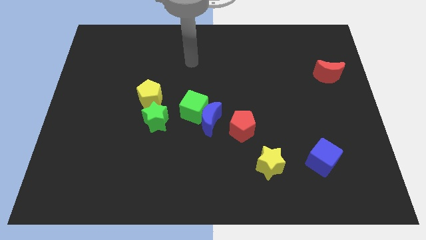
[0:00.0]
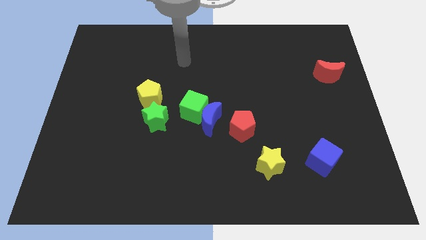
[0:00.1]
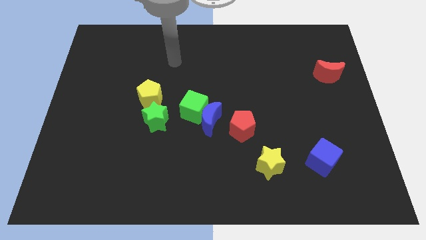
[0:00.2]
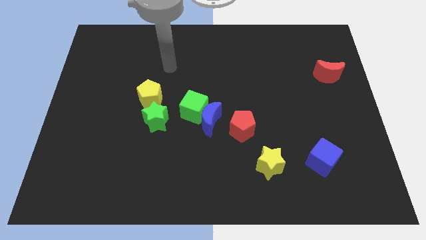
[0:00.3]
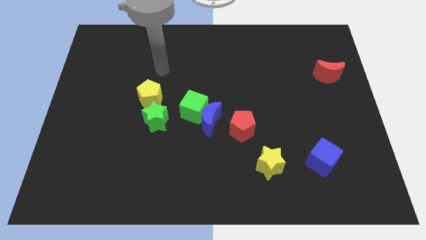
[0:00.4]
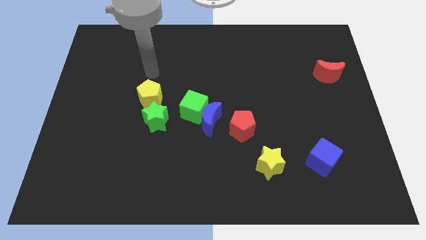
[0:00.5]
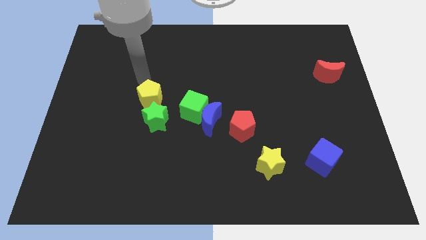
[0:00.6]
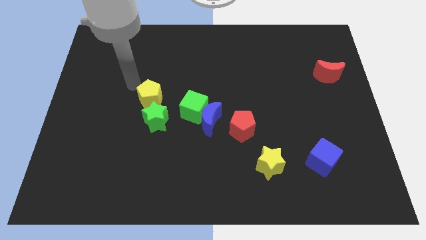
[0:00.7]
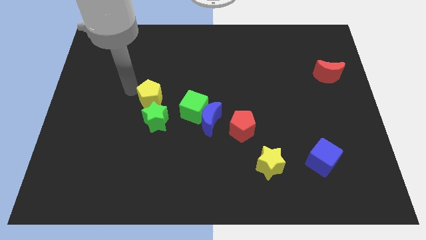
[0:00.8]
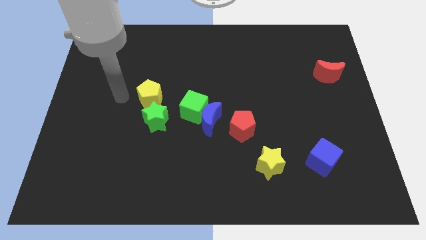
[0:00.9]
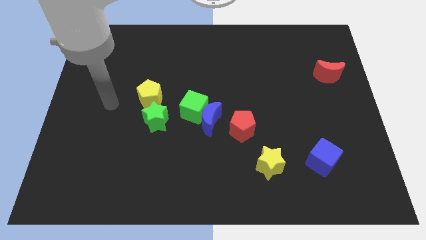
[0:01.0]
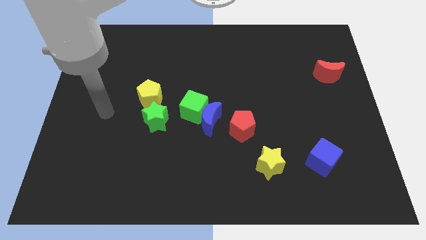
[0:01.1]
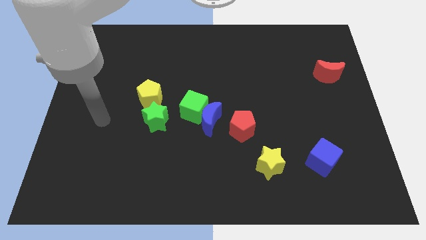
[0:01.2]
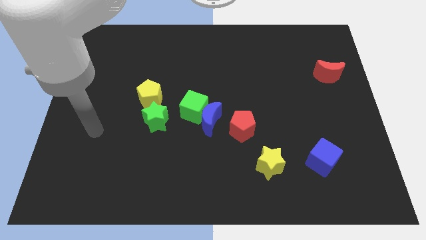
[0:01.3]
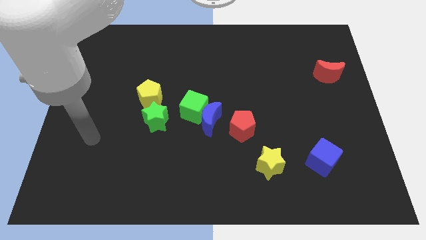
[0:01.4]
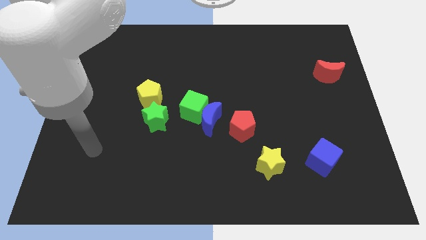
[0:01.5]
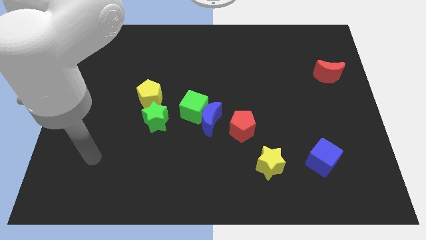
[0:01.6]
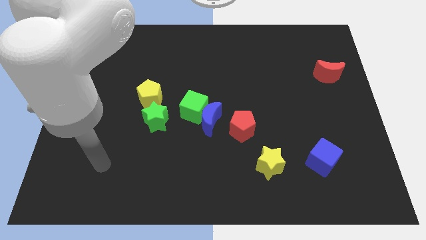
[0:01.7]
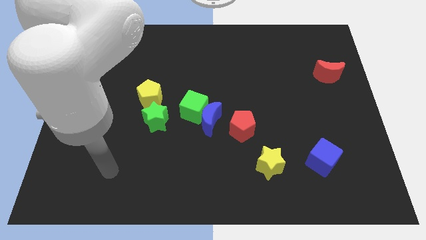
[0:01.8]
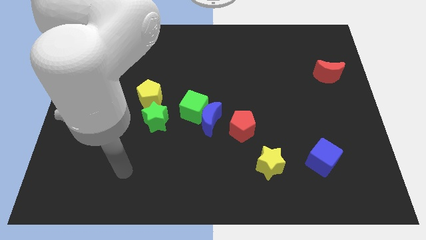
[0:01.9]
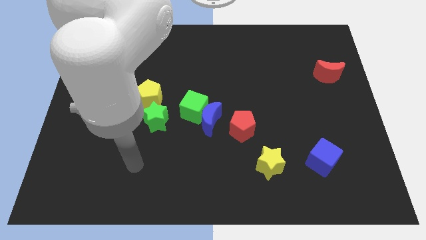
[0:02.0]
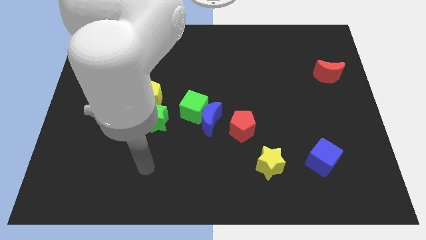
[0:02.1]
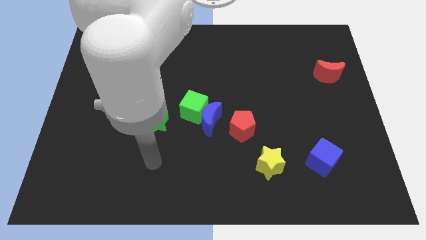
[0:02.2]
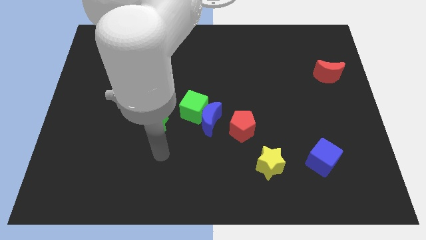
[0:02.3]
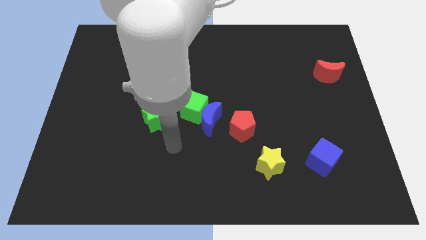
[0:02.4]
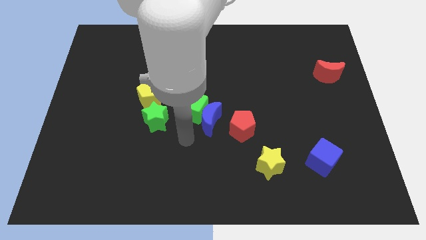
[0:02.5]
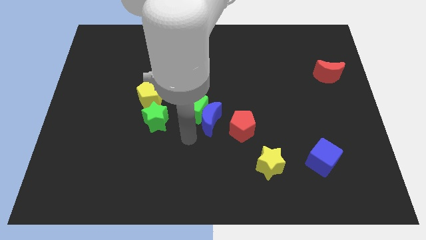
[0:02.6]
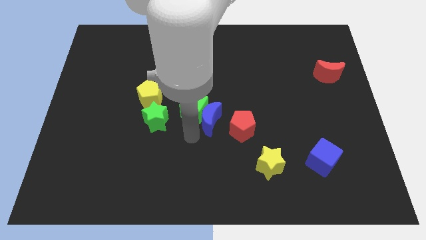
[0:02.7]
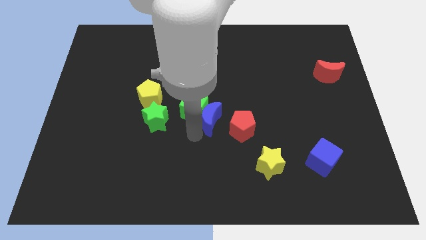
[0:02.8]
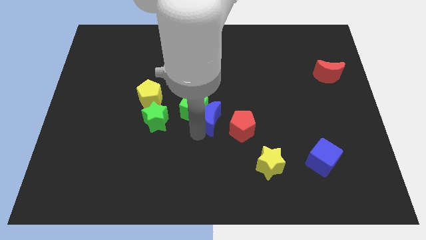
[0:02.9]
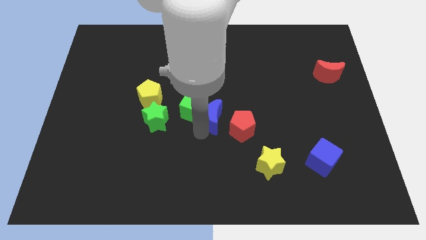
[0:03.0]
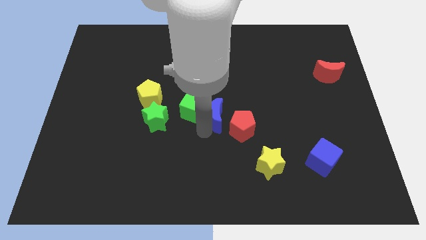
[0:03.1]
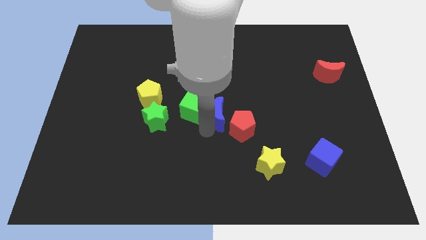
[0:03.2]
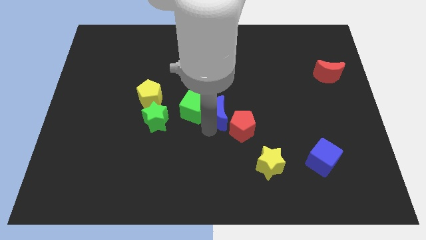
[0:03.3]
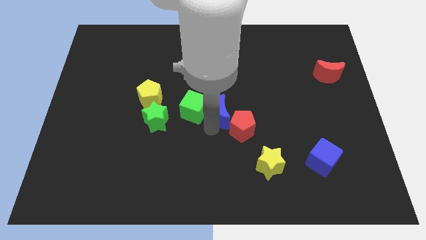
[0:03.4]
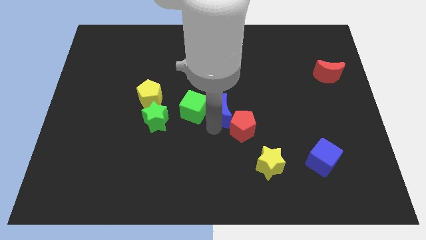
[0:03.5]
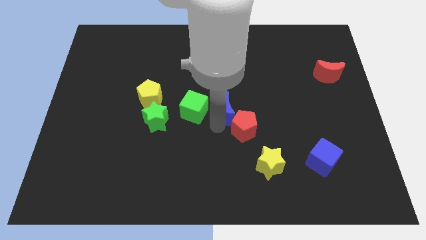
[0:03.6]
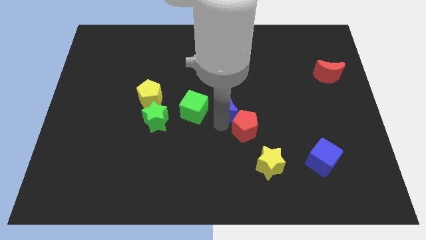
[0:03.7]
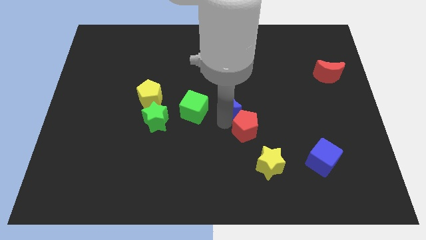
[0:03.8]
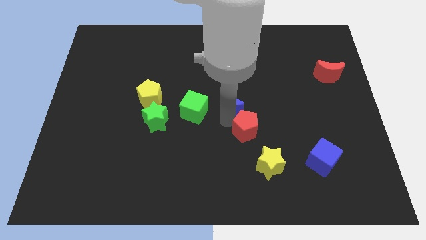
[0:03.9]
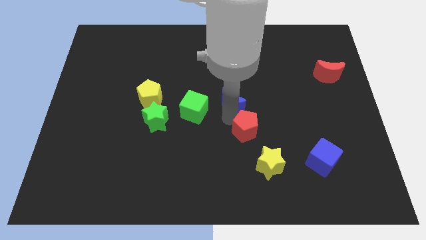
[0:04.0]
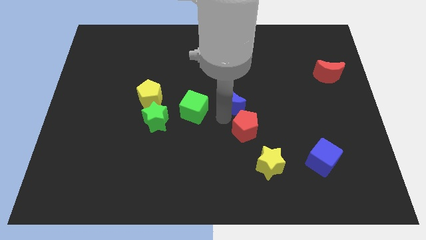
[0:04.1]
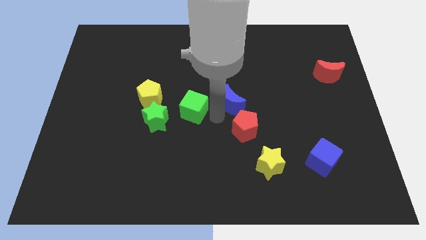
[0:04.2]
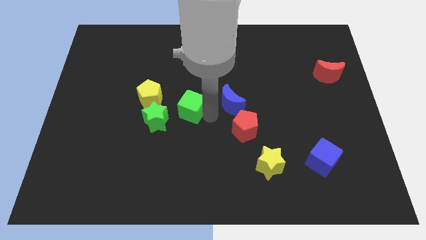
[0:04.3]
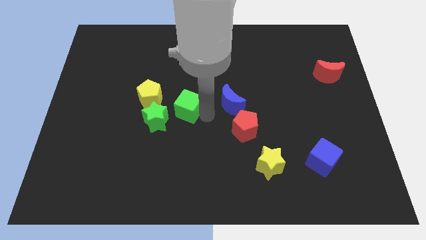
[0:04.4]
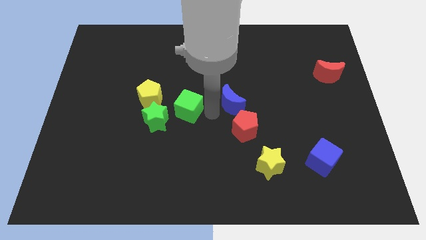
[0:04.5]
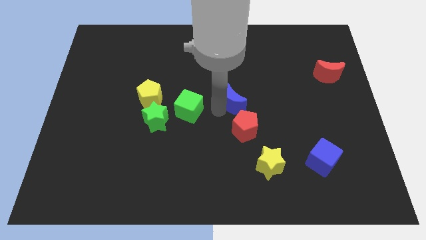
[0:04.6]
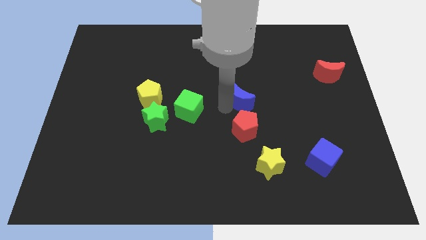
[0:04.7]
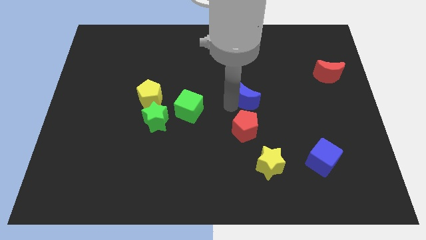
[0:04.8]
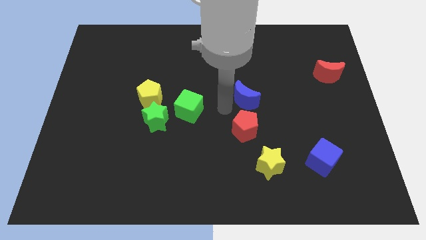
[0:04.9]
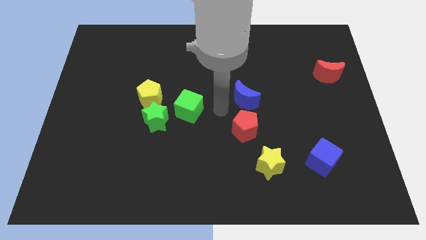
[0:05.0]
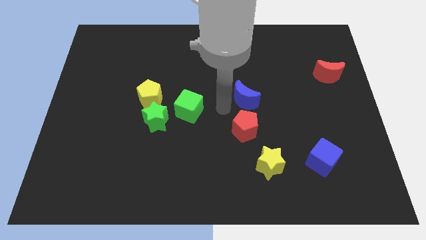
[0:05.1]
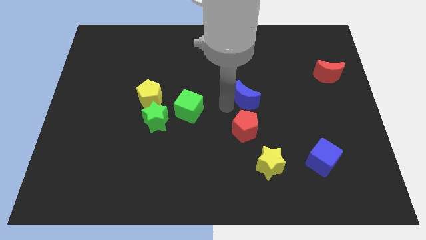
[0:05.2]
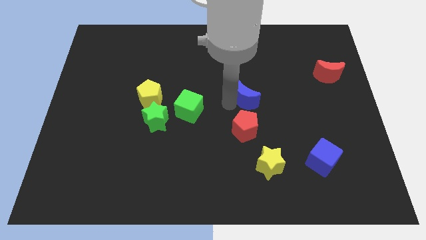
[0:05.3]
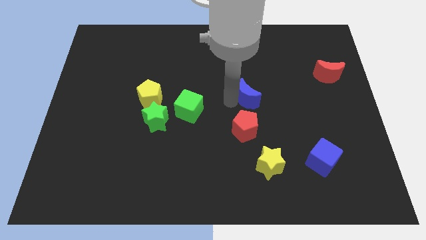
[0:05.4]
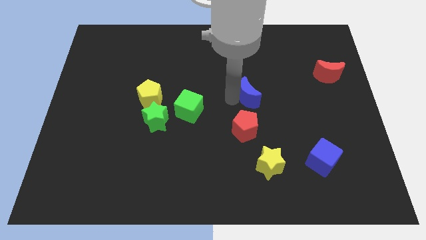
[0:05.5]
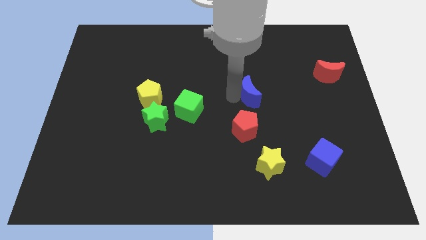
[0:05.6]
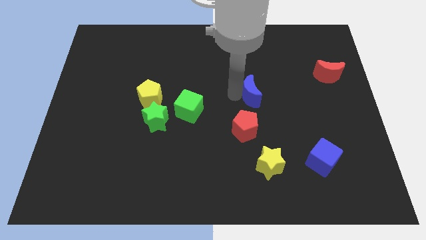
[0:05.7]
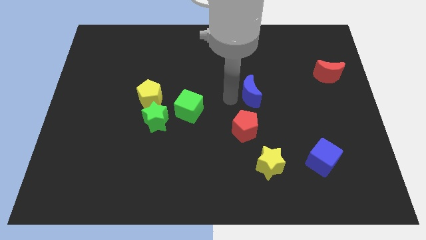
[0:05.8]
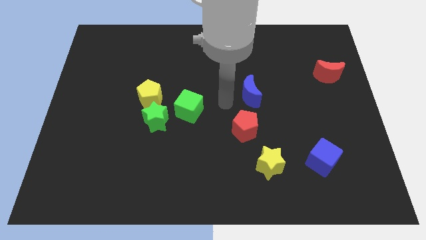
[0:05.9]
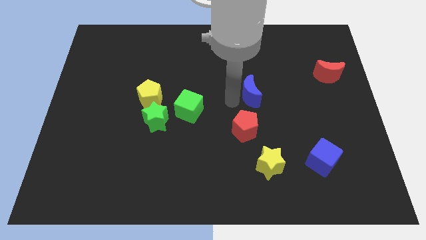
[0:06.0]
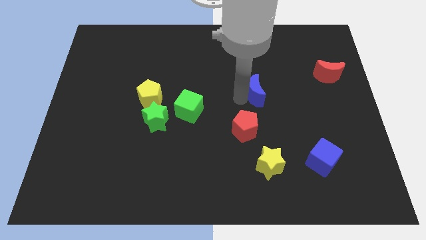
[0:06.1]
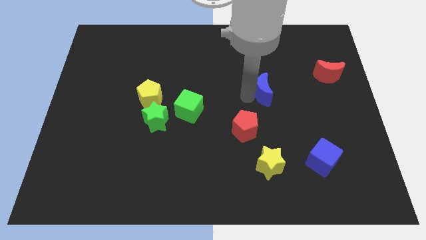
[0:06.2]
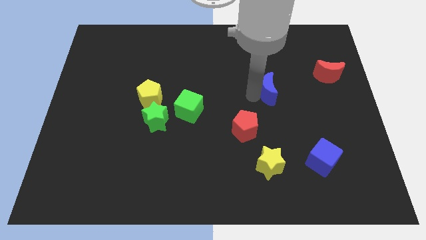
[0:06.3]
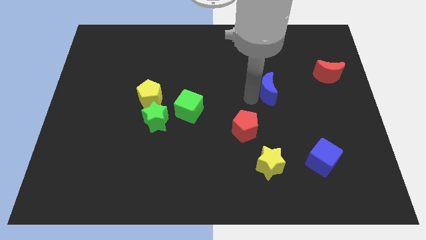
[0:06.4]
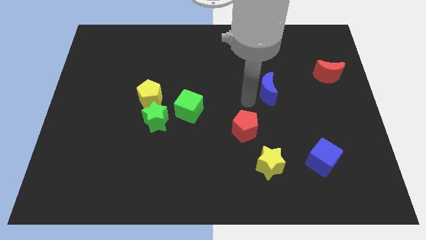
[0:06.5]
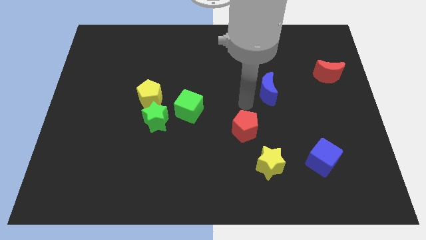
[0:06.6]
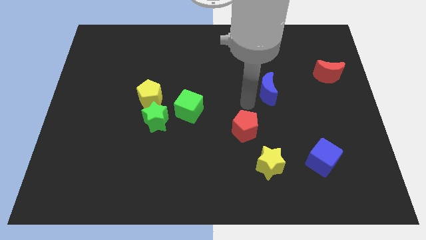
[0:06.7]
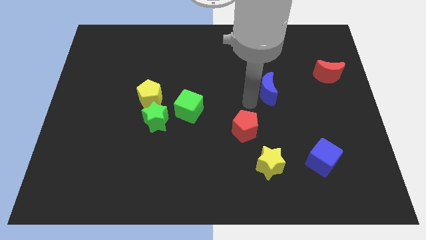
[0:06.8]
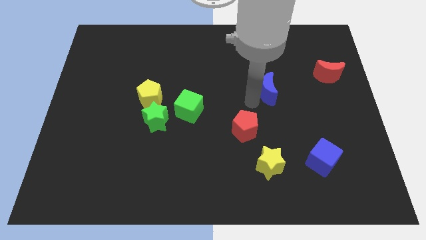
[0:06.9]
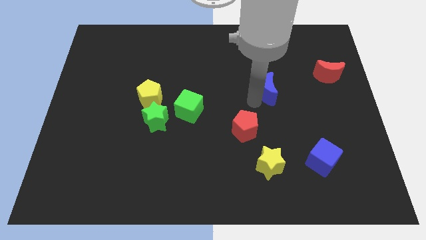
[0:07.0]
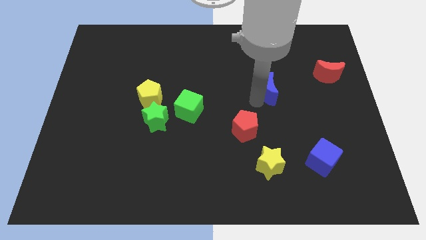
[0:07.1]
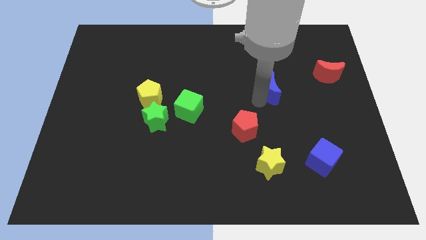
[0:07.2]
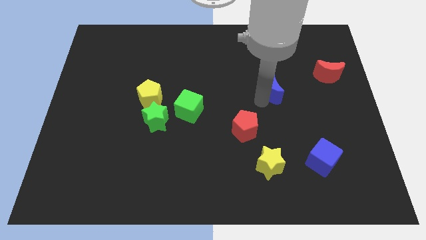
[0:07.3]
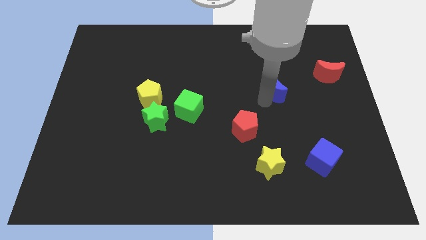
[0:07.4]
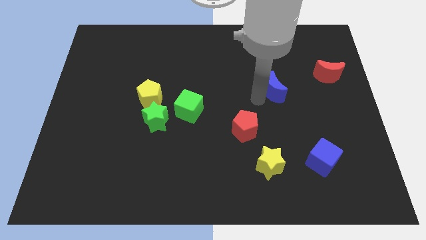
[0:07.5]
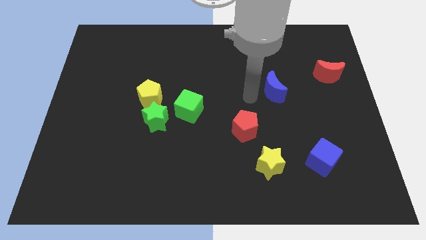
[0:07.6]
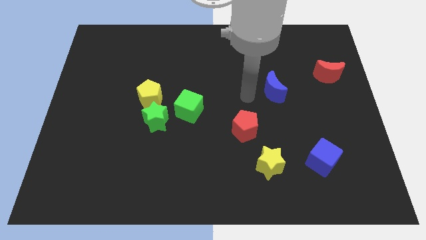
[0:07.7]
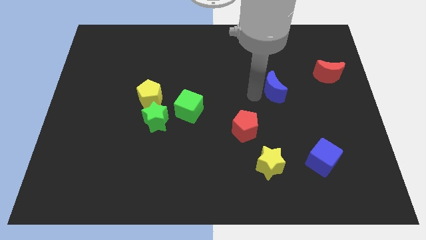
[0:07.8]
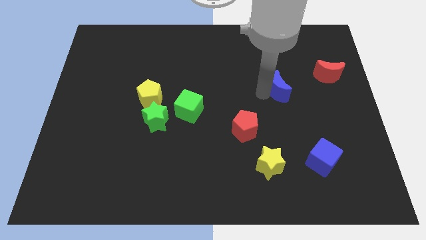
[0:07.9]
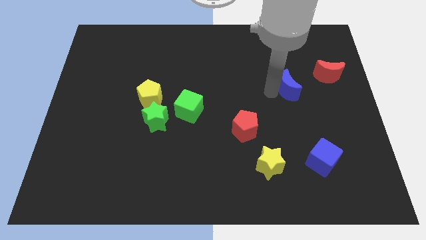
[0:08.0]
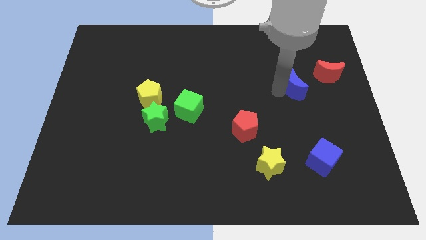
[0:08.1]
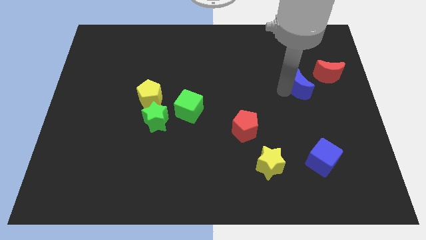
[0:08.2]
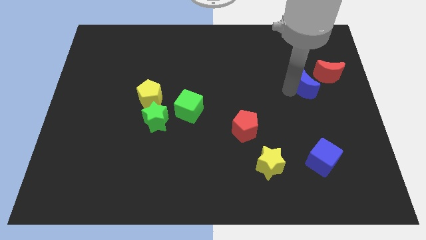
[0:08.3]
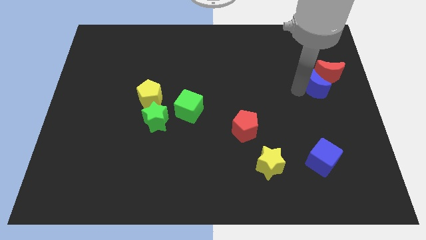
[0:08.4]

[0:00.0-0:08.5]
move the blue moon towards the red moon
